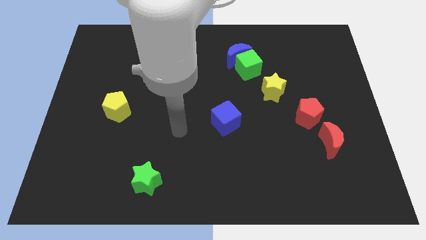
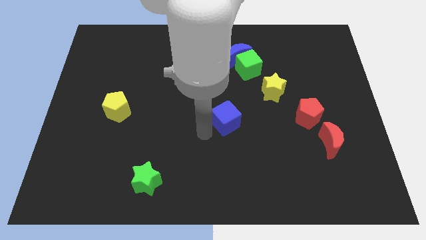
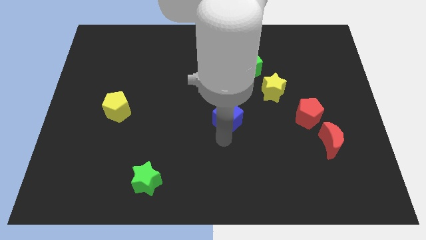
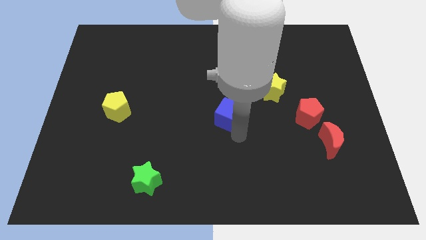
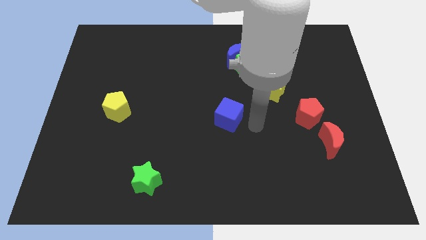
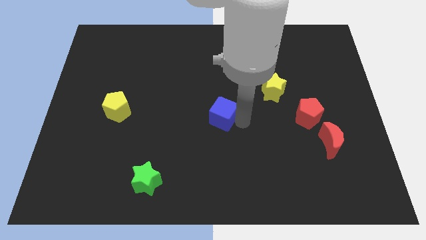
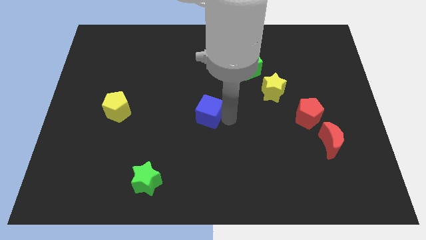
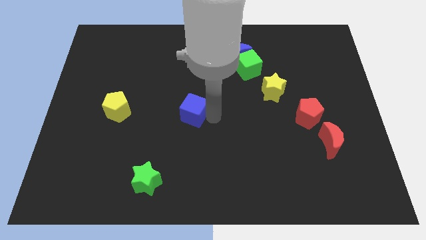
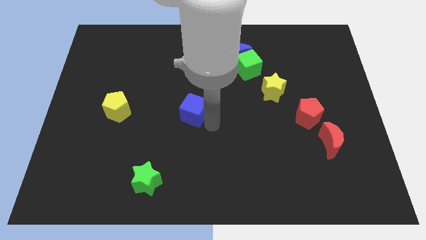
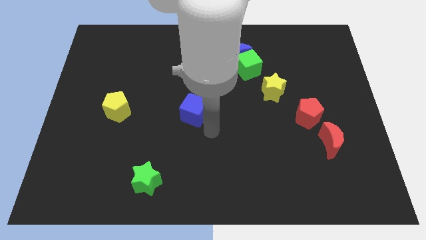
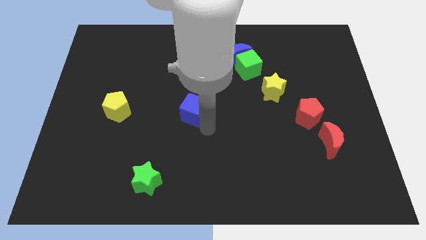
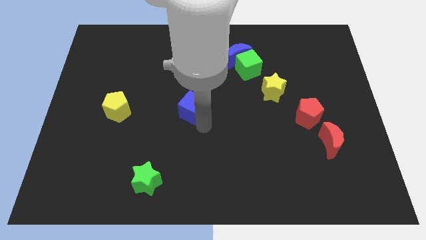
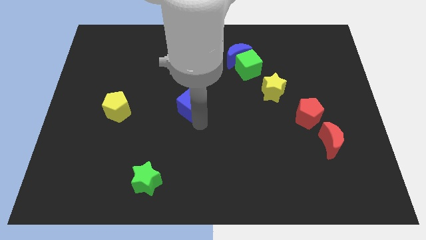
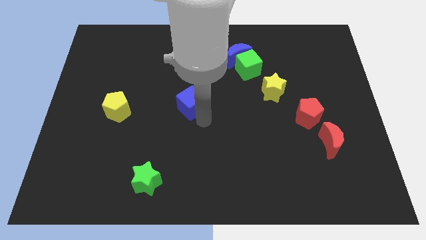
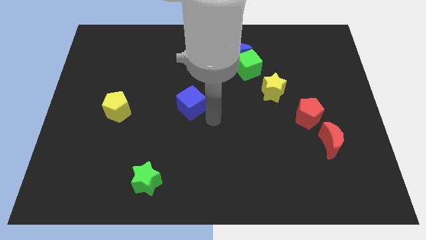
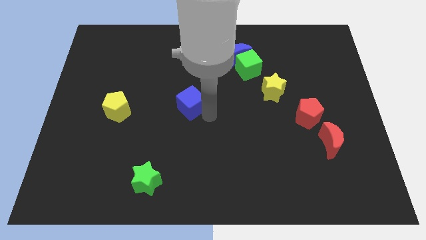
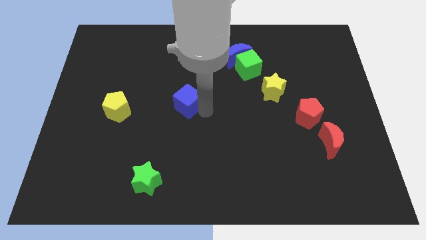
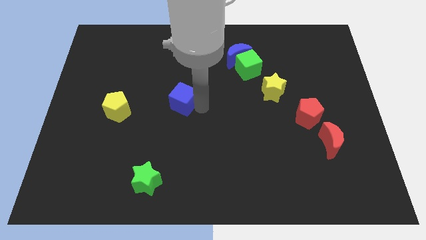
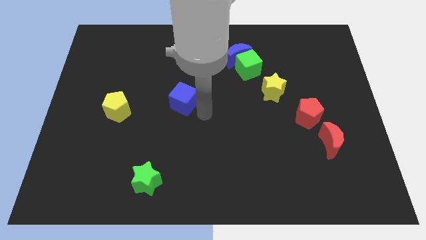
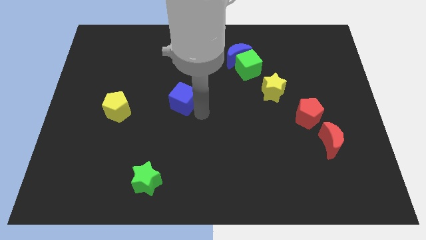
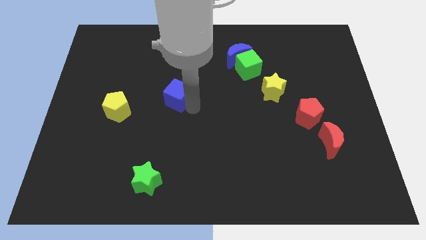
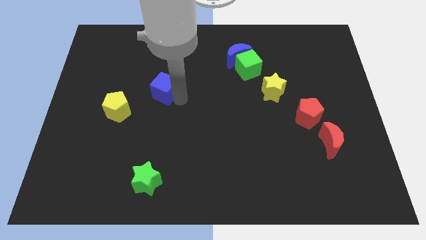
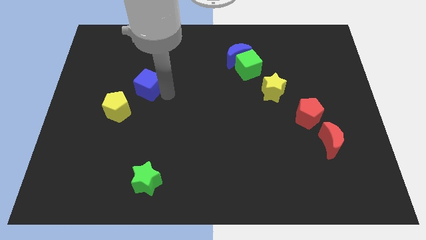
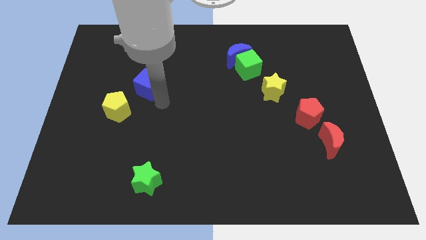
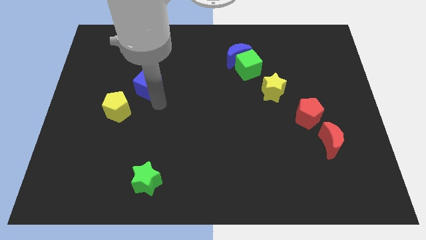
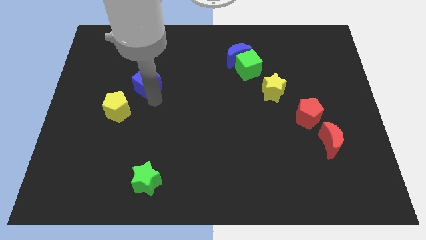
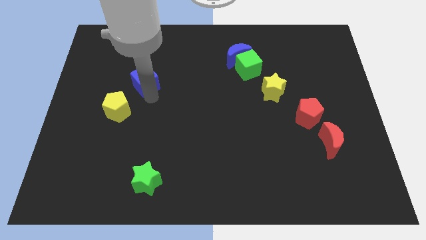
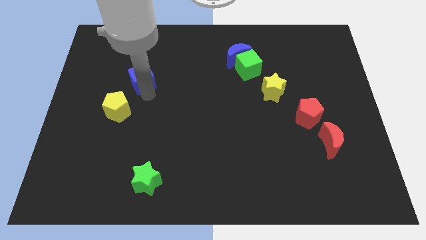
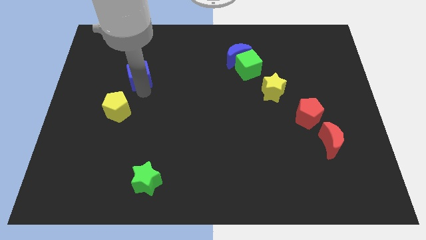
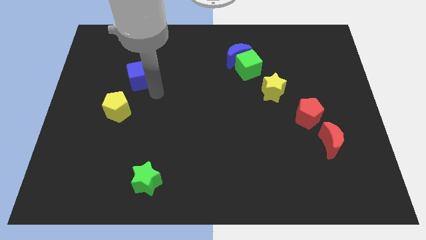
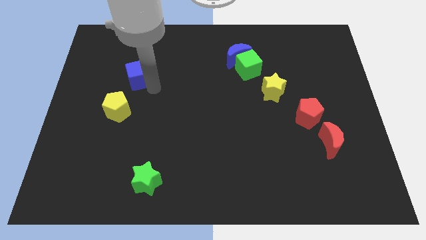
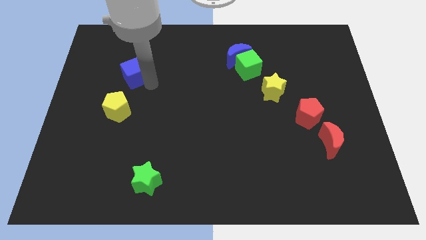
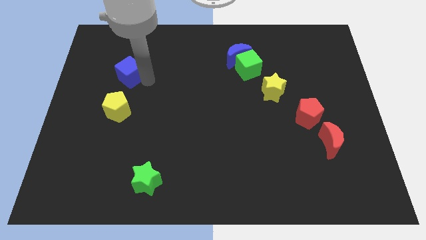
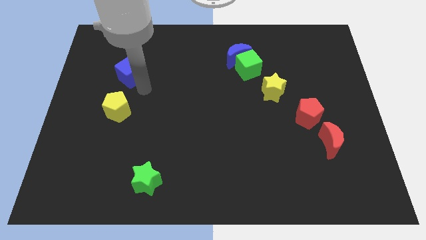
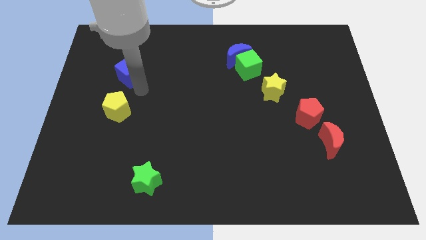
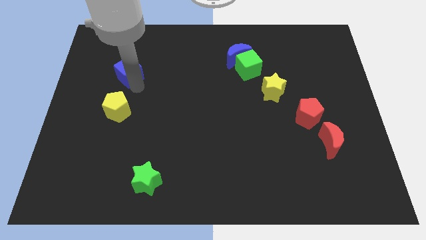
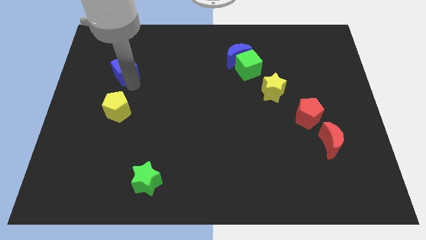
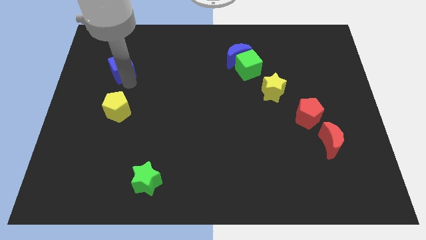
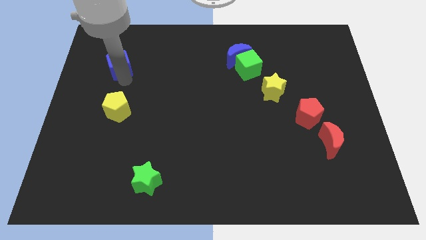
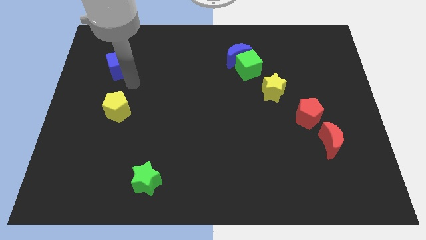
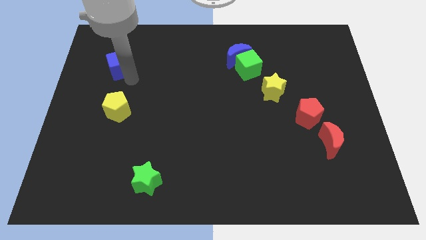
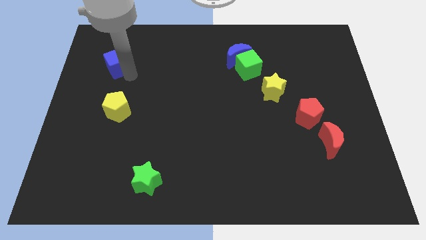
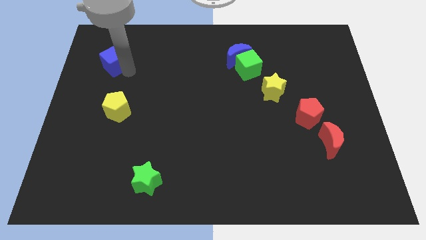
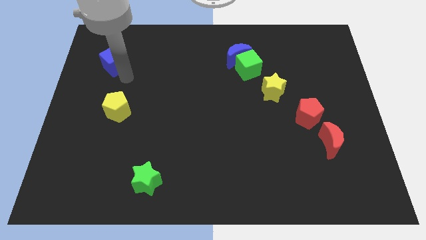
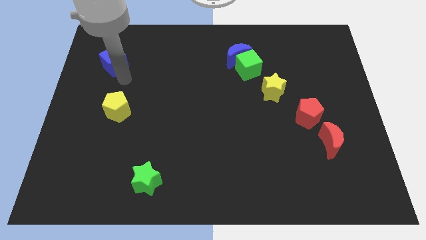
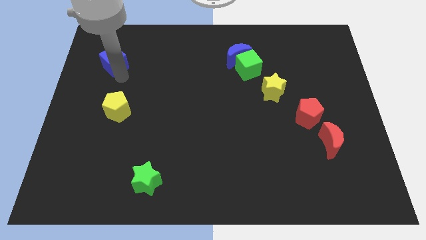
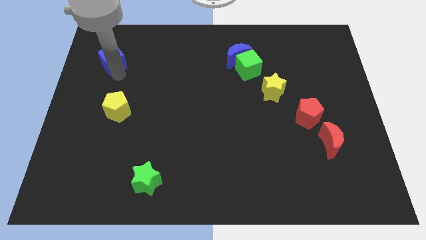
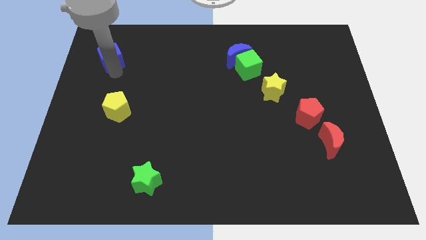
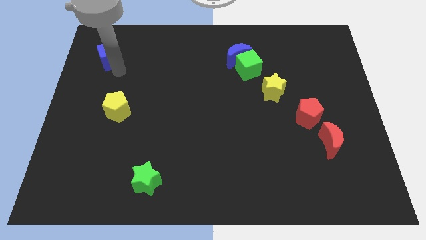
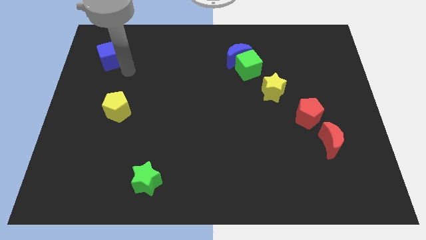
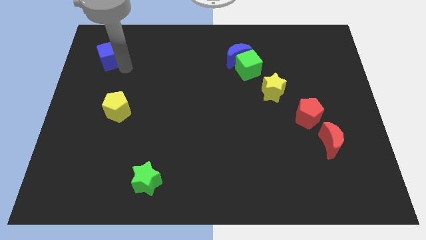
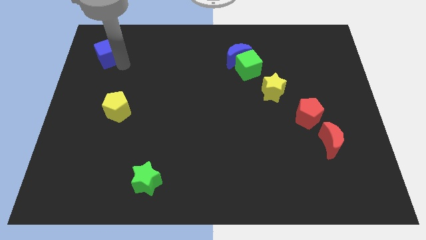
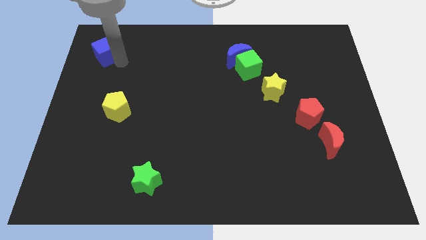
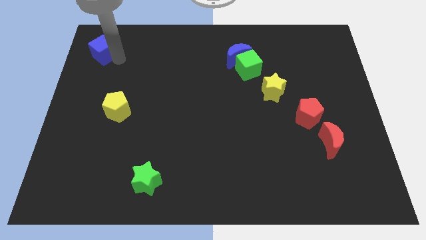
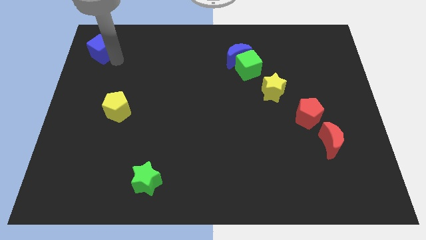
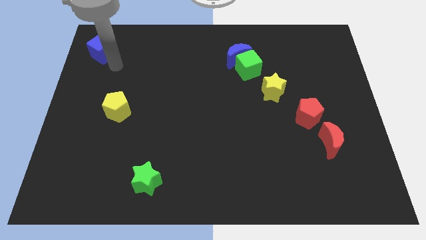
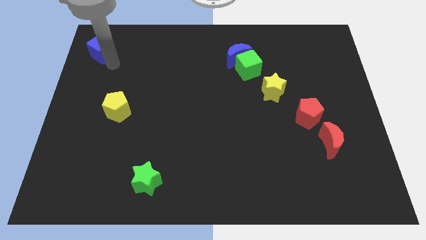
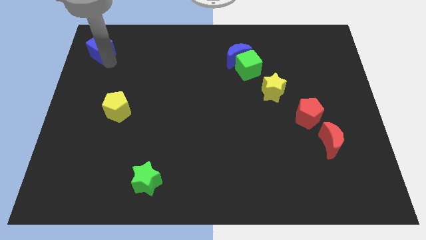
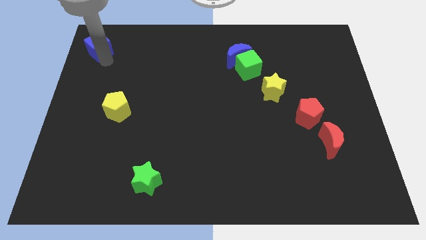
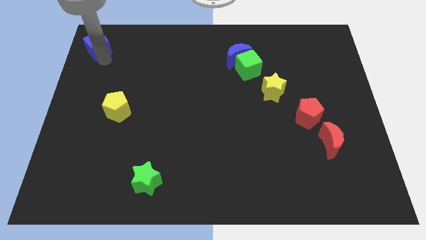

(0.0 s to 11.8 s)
push the blue cube to the top left
